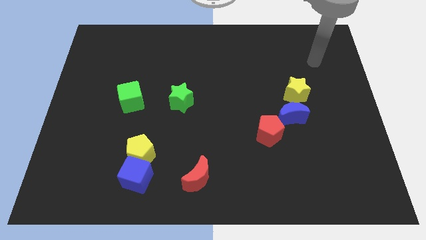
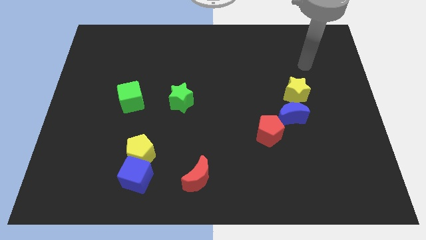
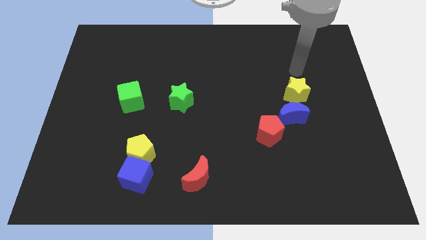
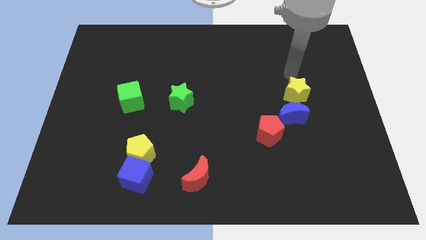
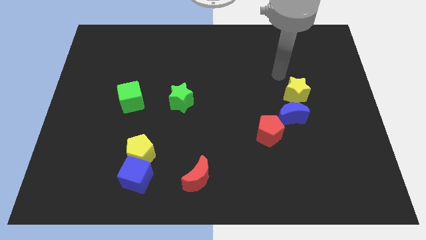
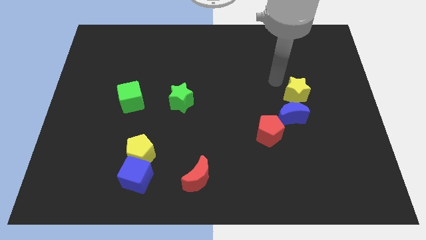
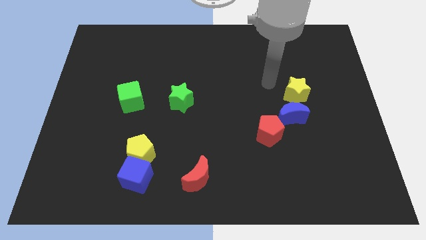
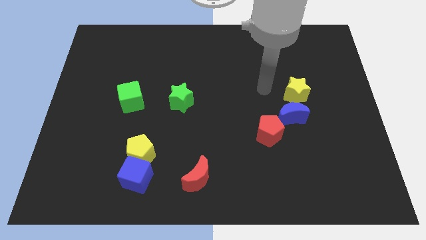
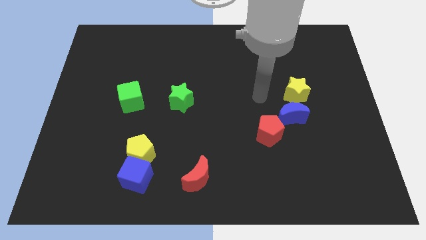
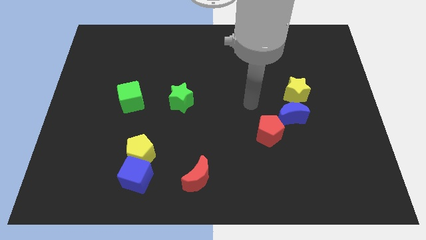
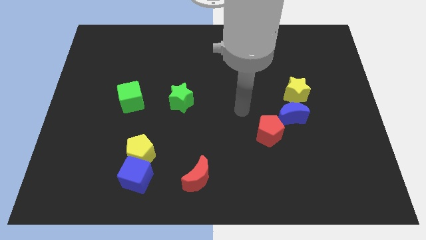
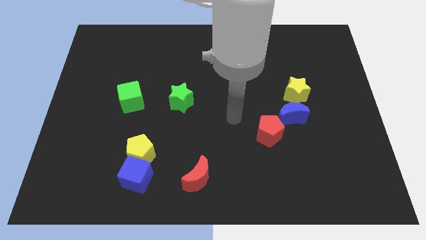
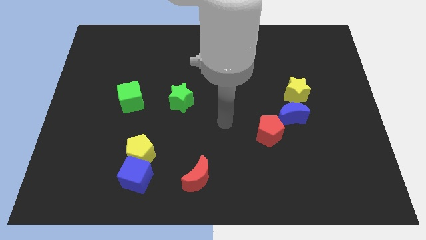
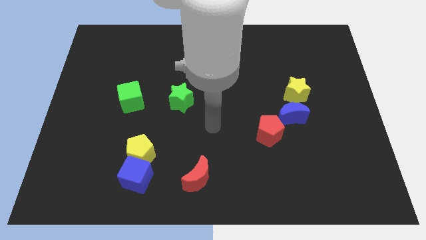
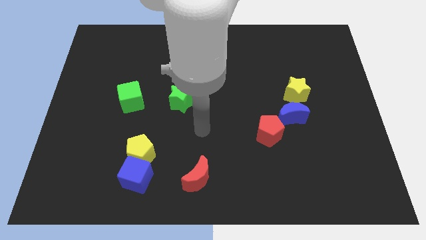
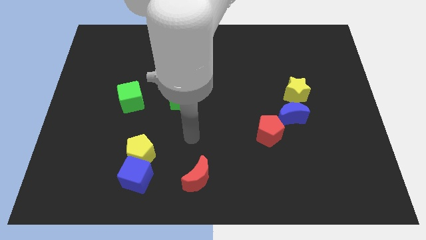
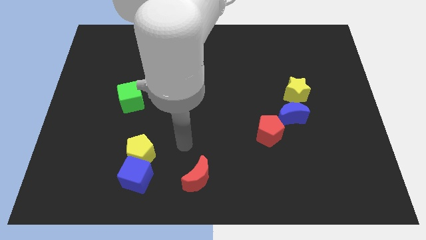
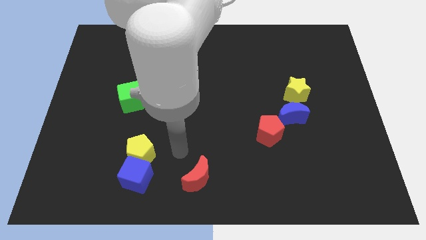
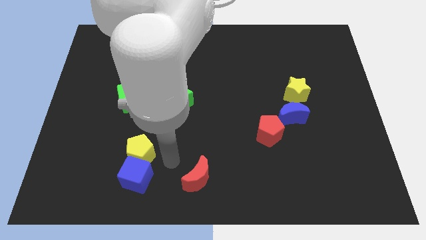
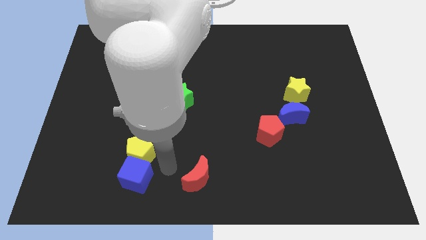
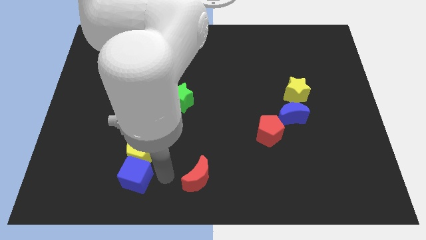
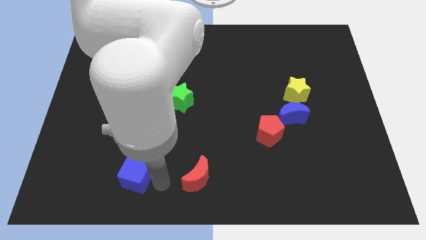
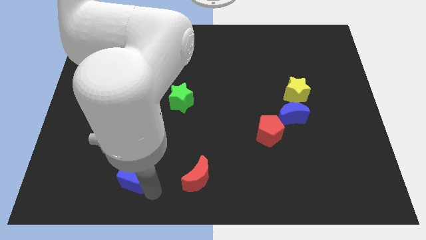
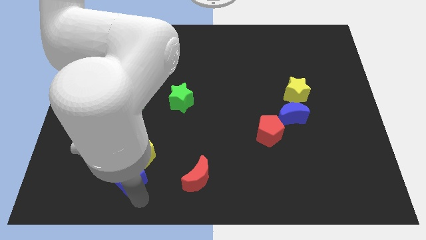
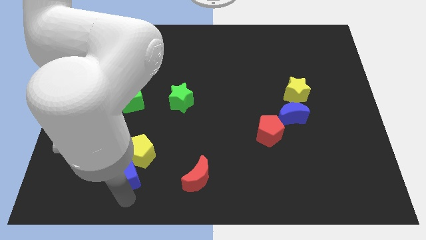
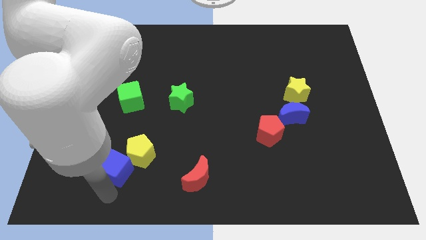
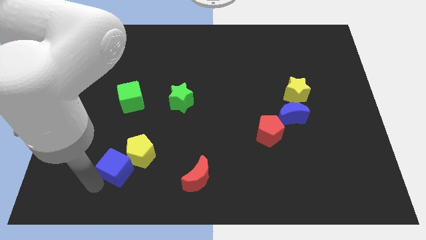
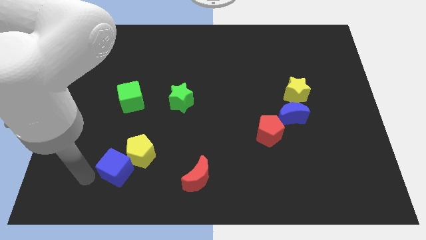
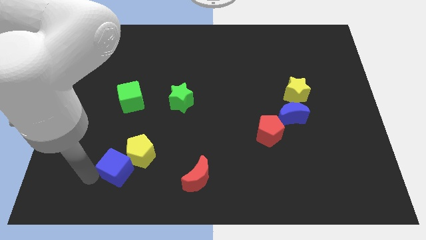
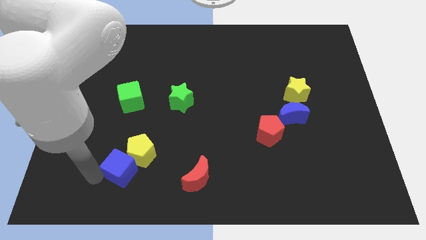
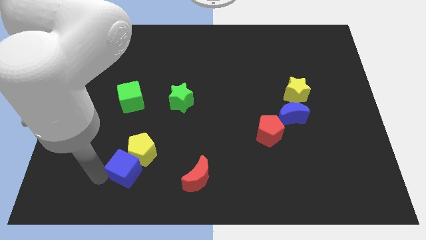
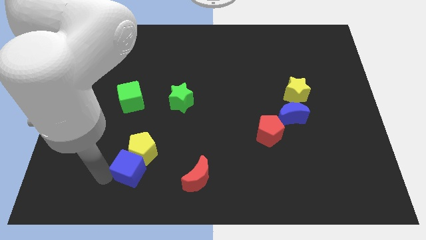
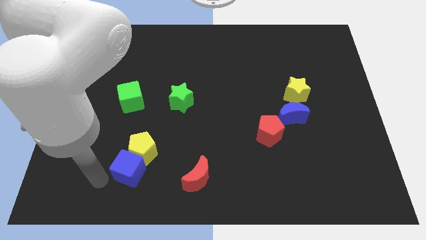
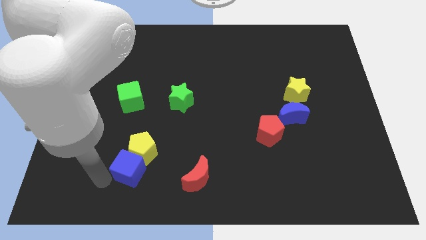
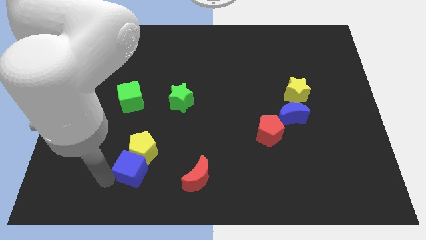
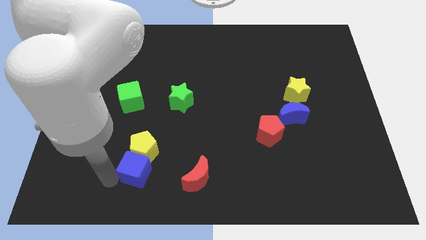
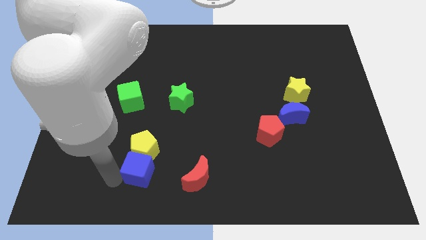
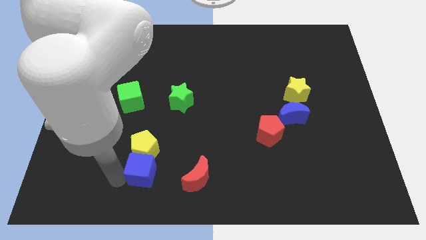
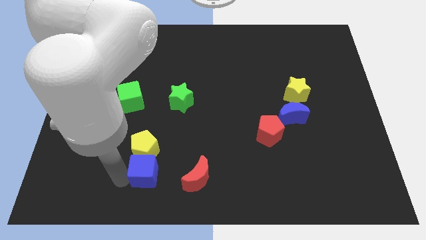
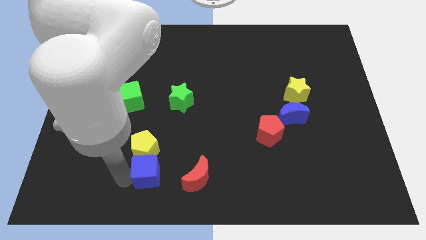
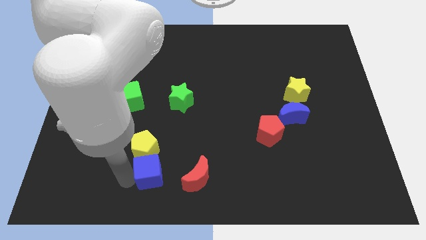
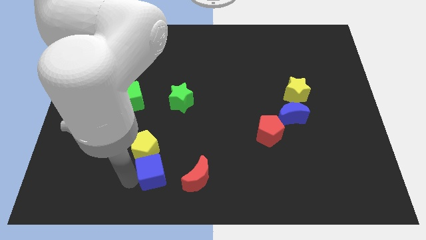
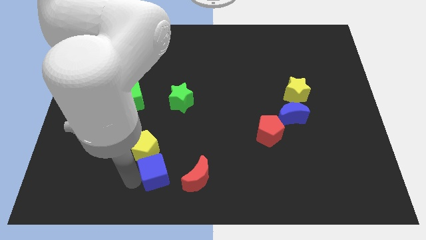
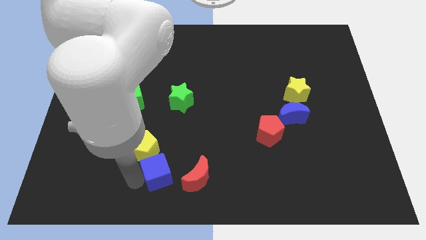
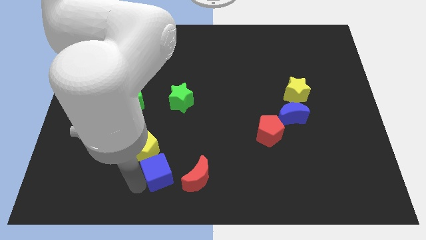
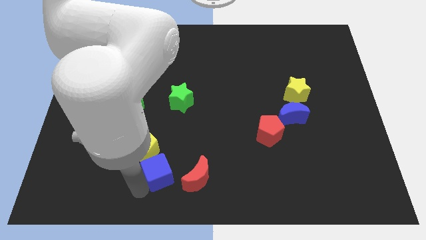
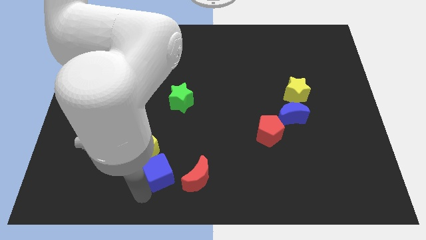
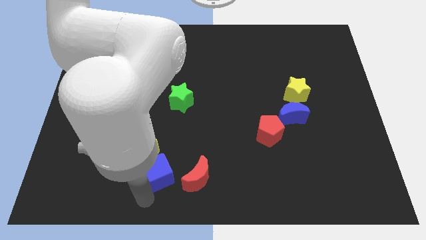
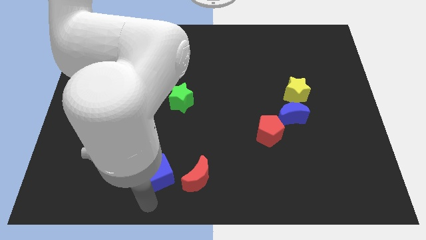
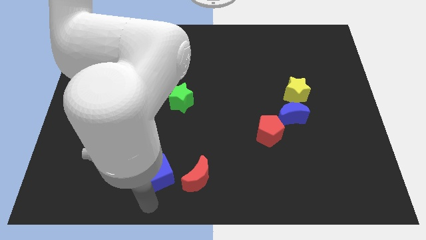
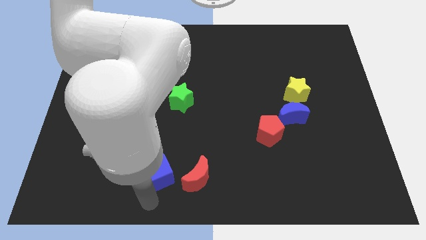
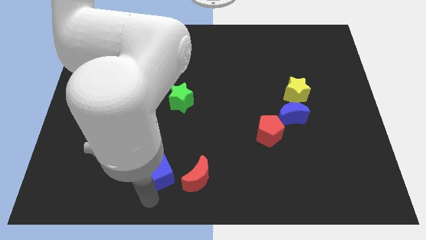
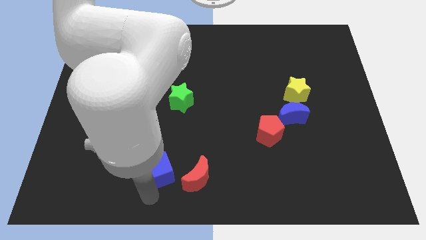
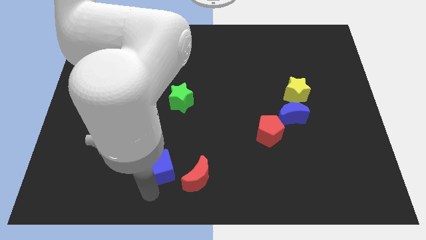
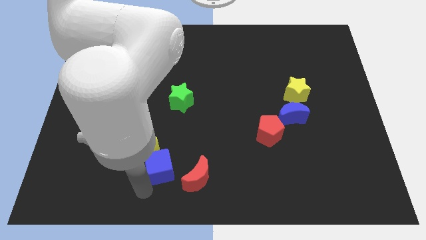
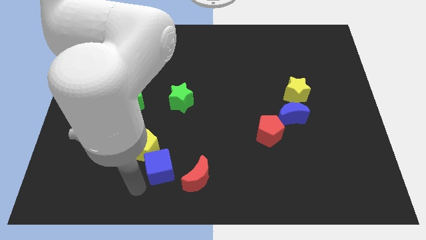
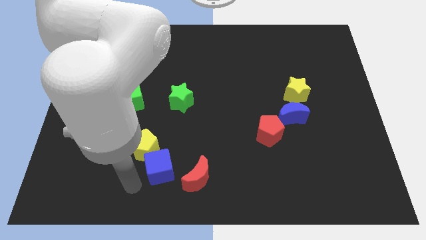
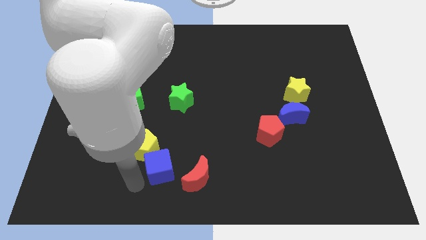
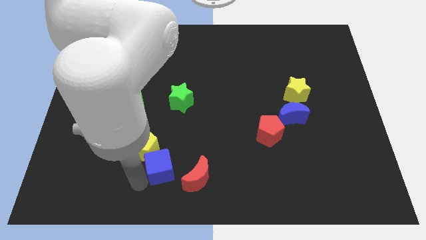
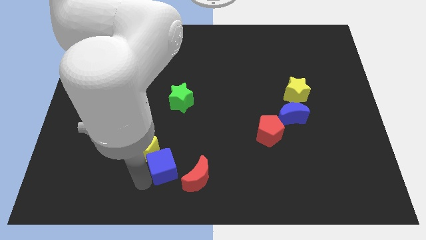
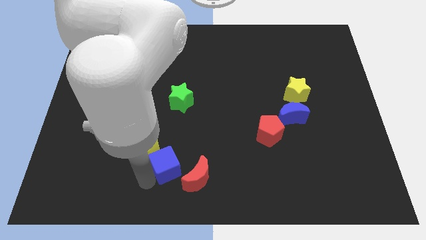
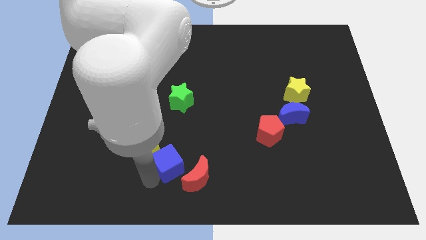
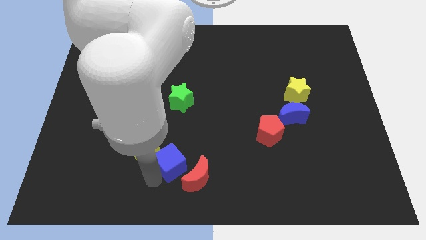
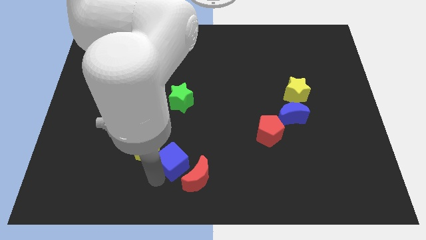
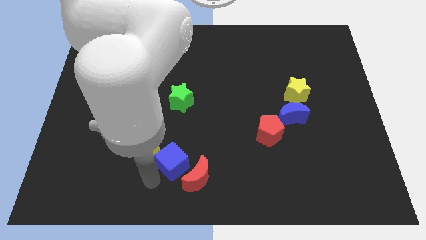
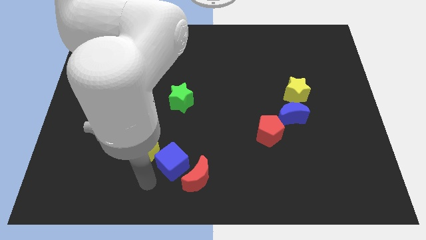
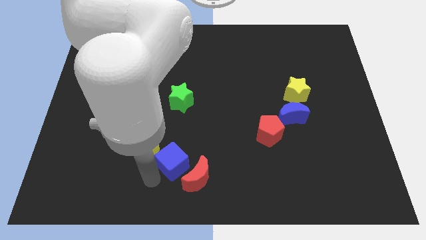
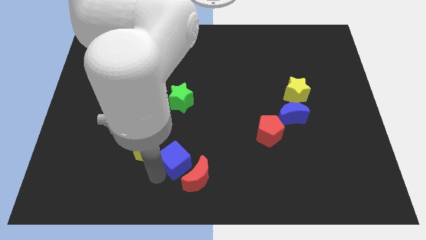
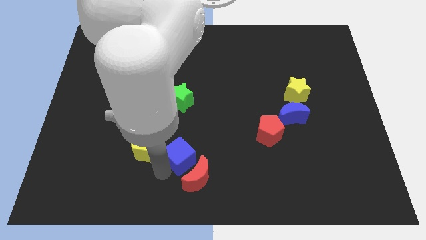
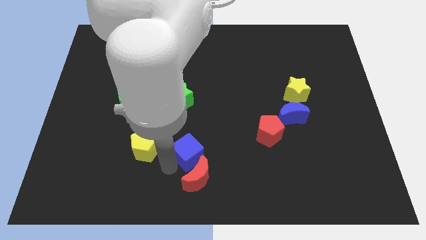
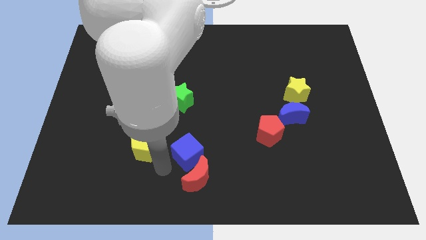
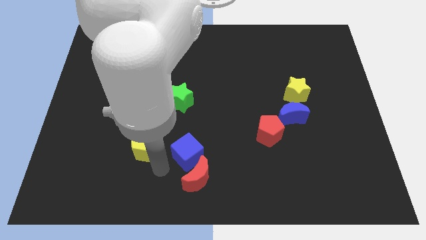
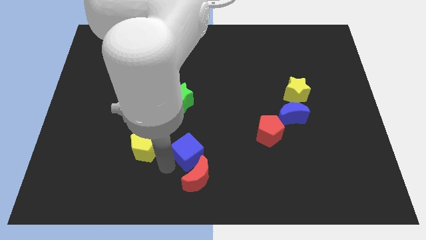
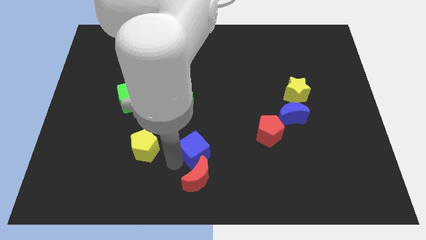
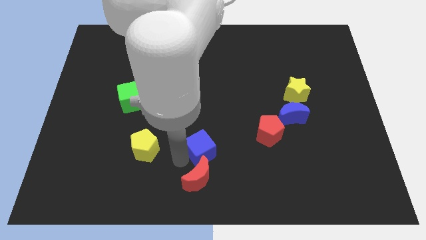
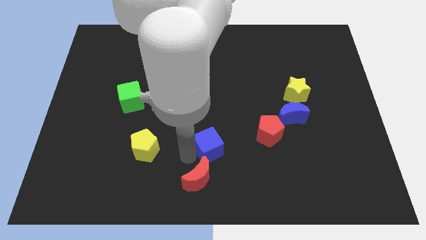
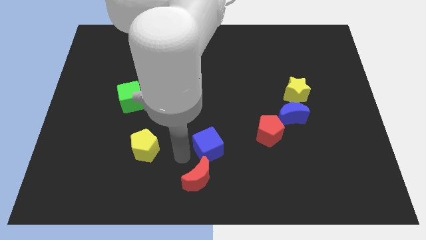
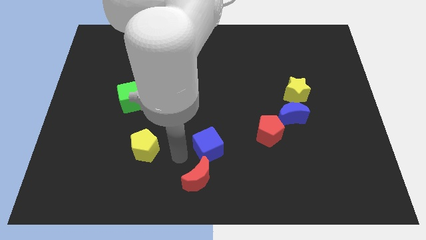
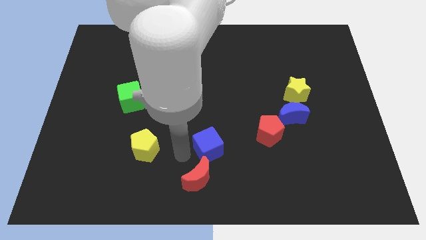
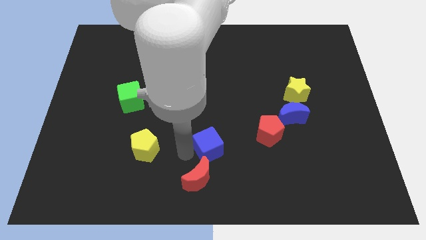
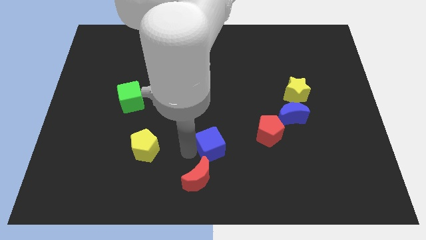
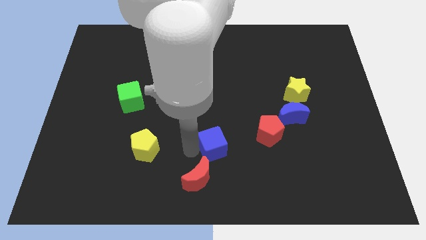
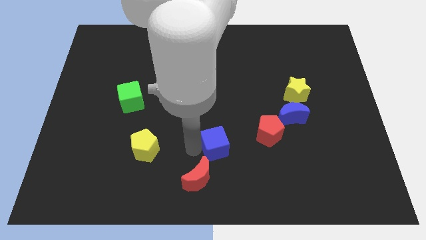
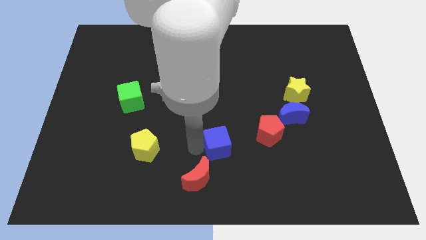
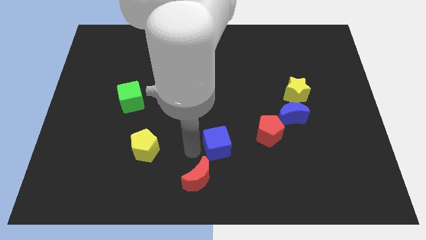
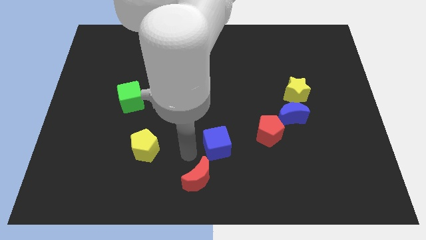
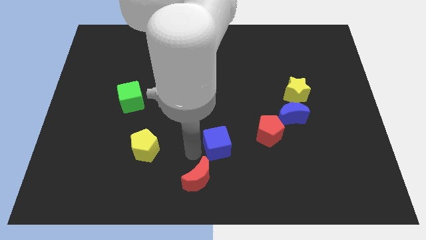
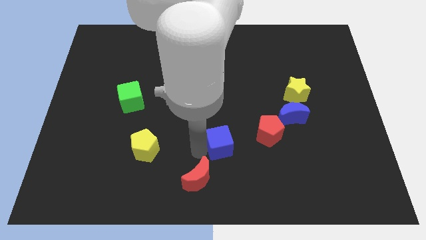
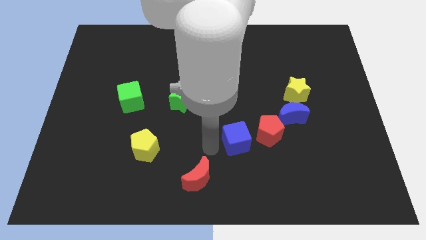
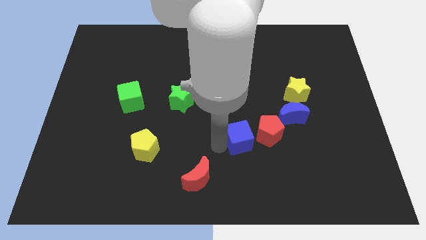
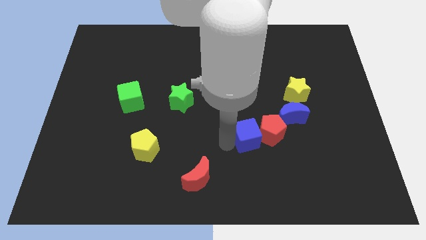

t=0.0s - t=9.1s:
put the blue cube next to the red pentagon
